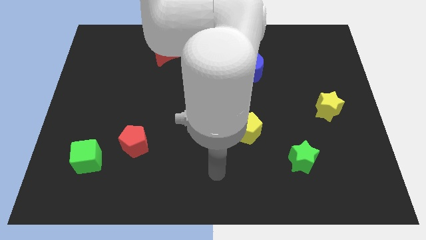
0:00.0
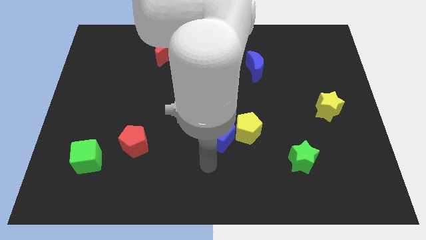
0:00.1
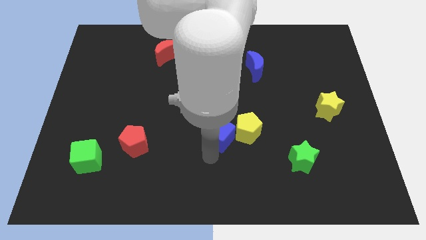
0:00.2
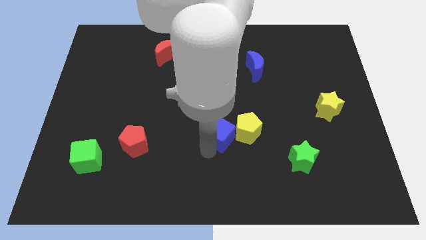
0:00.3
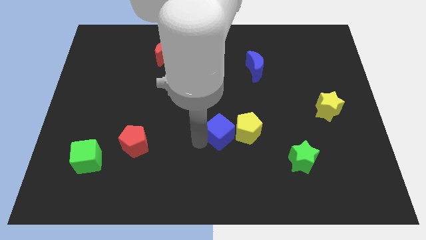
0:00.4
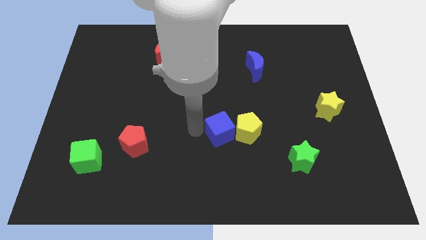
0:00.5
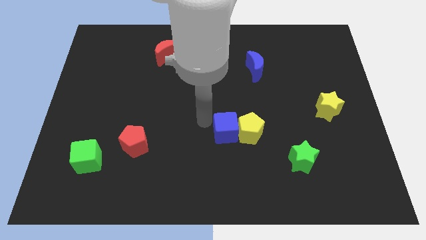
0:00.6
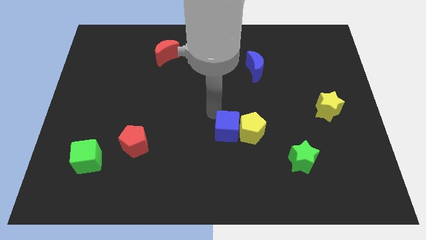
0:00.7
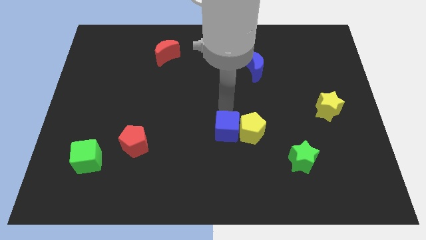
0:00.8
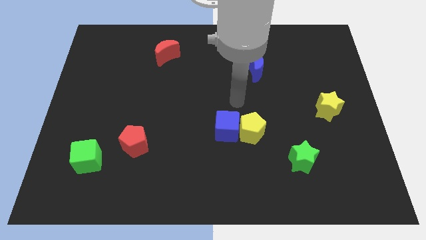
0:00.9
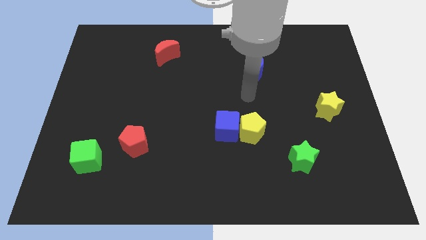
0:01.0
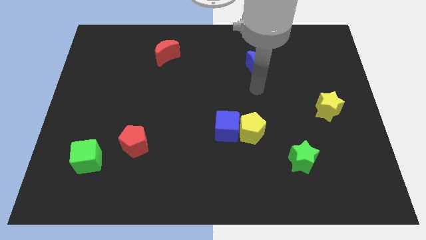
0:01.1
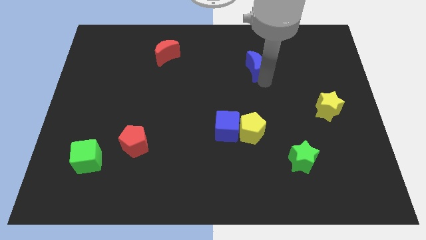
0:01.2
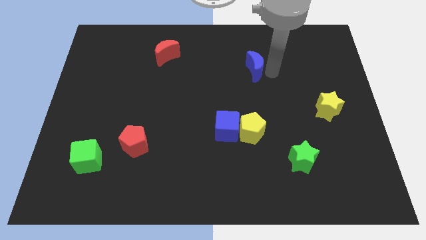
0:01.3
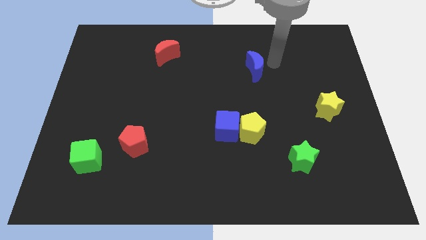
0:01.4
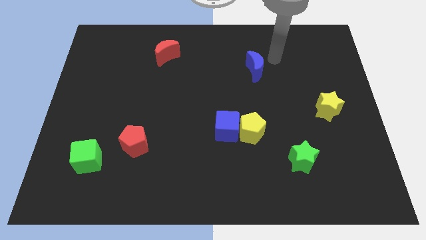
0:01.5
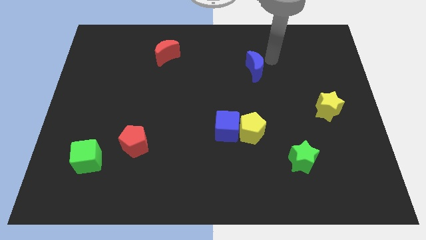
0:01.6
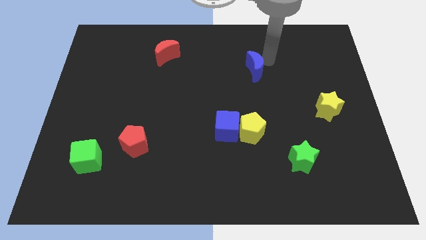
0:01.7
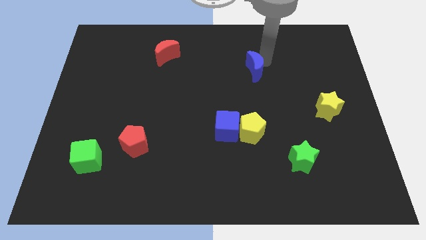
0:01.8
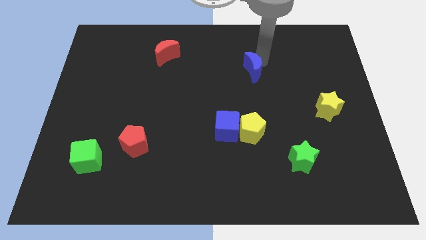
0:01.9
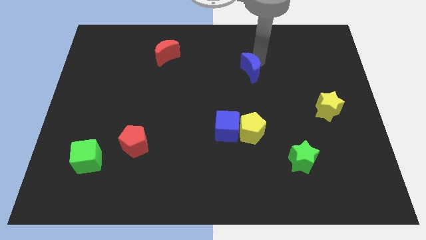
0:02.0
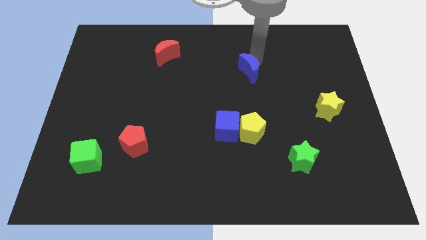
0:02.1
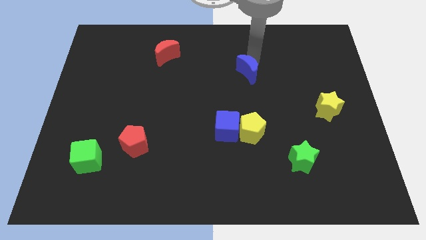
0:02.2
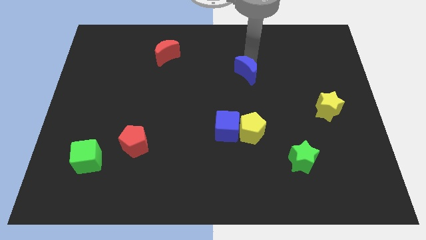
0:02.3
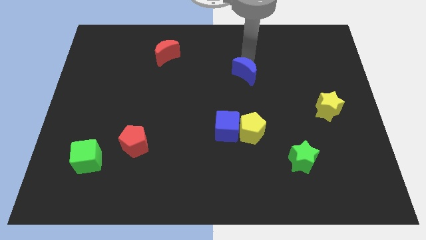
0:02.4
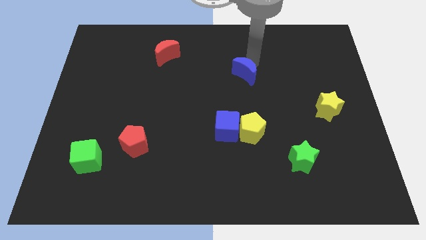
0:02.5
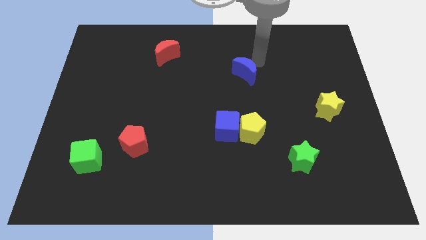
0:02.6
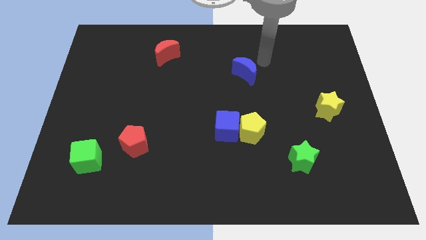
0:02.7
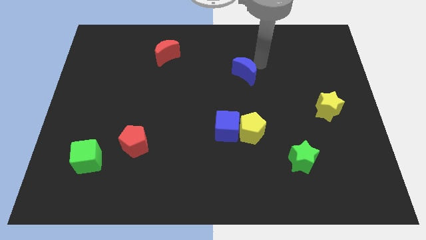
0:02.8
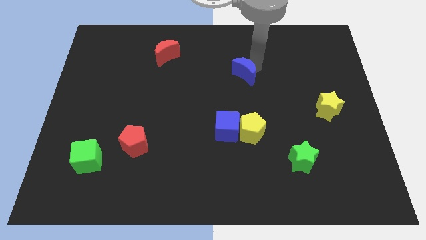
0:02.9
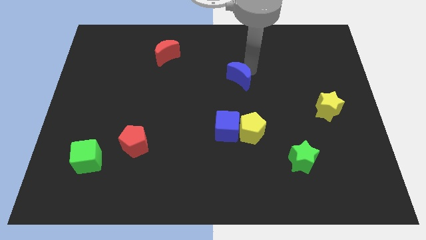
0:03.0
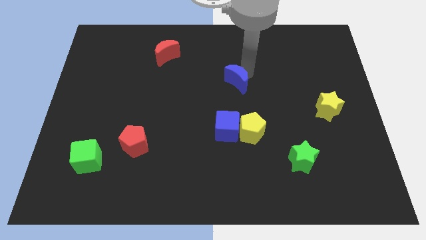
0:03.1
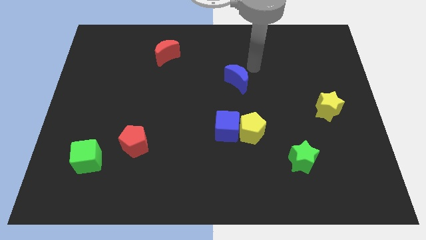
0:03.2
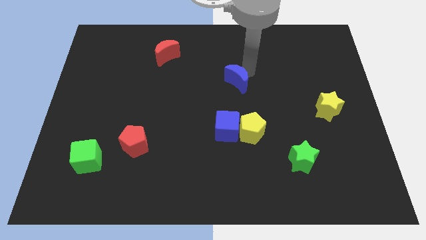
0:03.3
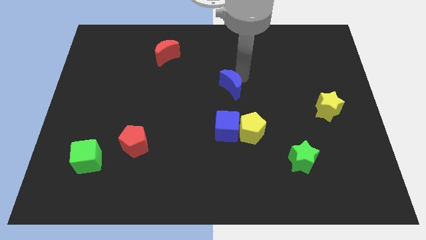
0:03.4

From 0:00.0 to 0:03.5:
move the blue moon a little diagonally down and to the left

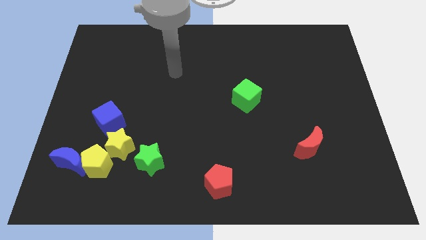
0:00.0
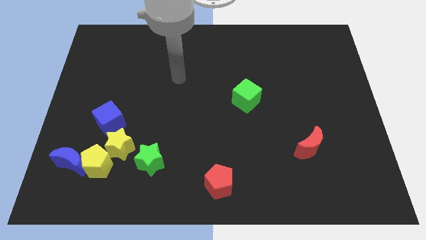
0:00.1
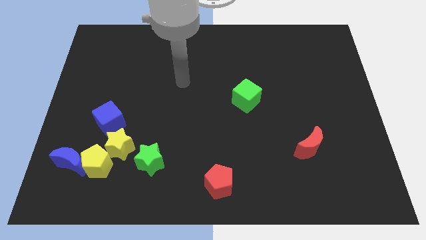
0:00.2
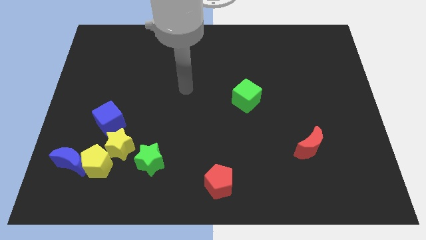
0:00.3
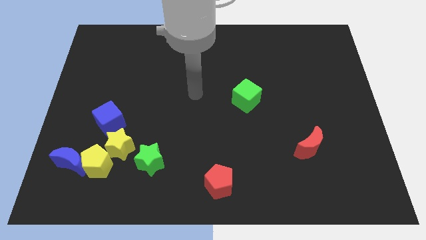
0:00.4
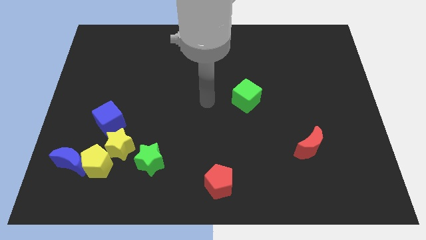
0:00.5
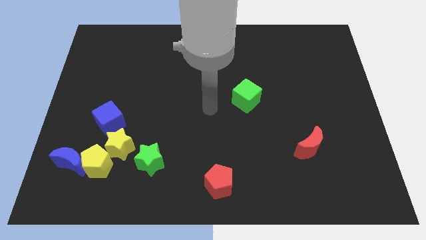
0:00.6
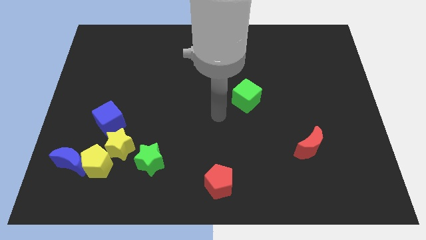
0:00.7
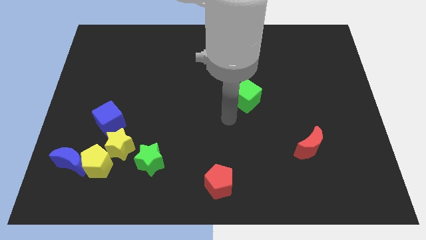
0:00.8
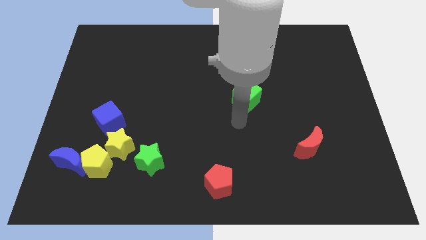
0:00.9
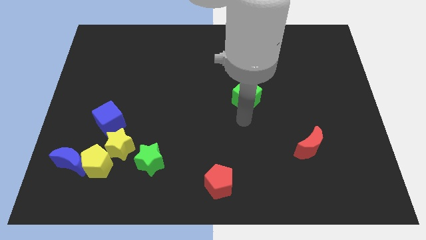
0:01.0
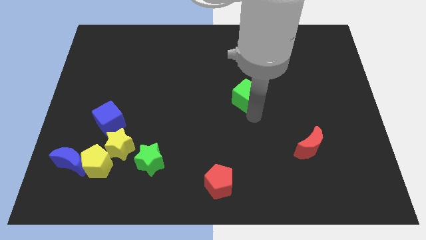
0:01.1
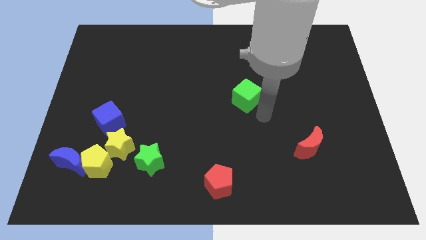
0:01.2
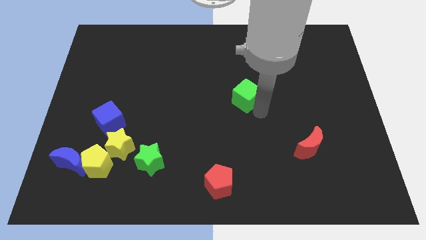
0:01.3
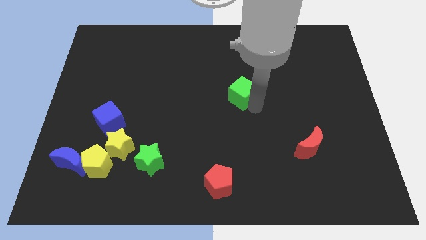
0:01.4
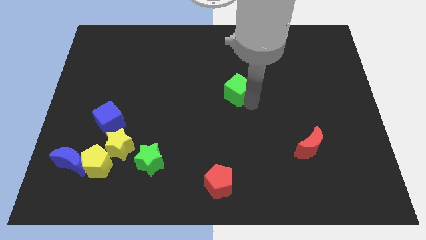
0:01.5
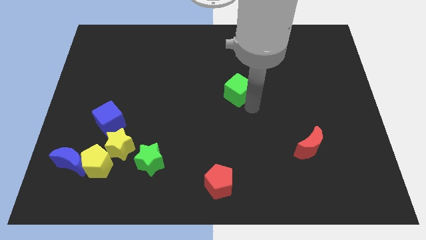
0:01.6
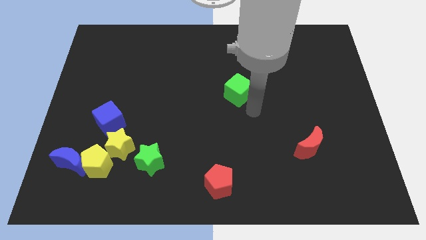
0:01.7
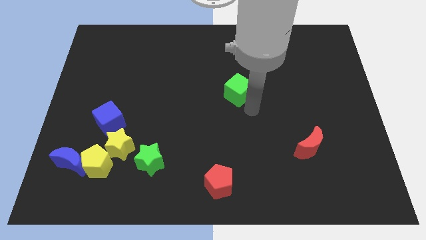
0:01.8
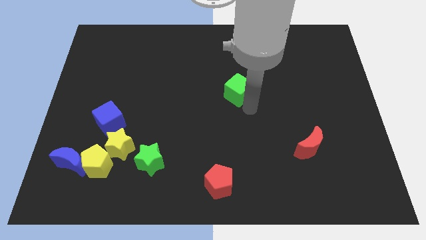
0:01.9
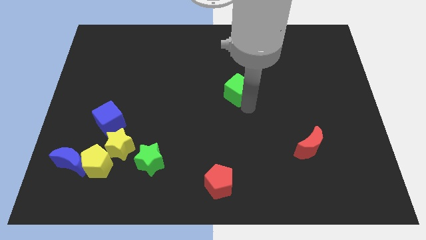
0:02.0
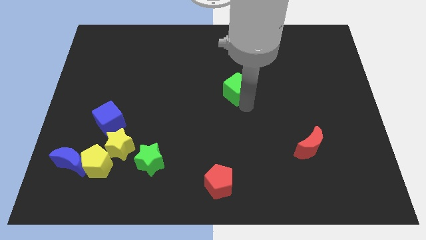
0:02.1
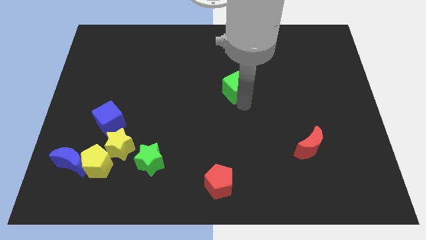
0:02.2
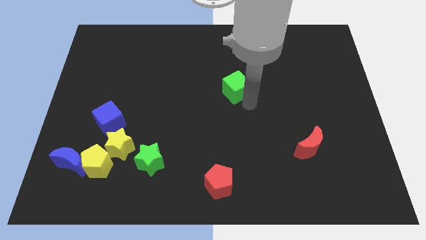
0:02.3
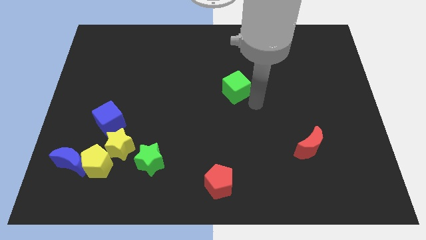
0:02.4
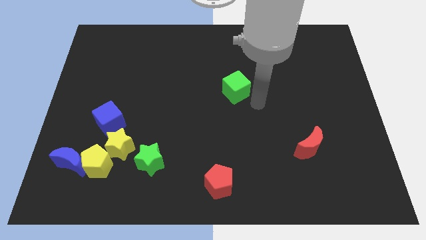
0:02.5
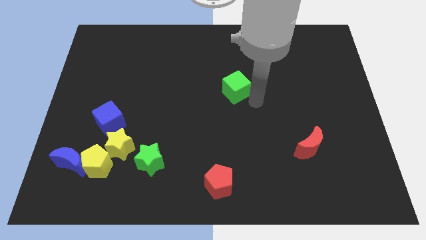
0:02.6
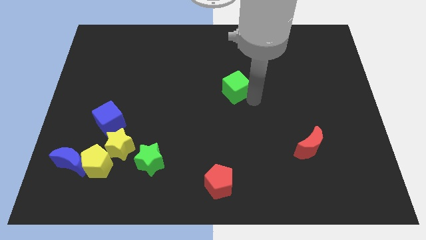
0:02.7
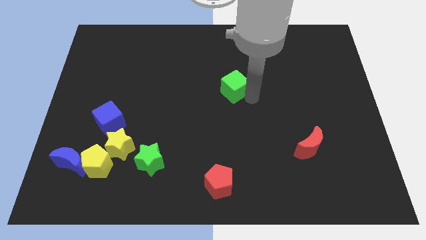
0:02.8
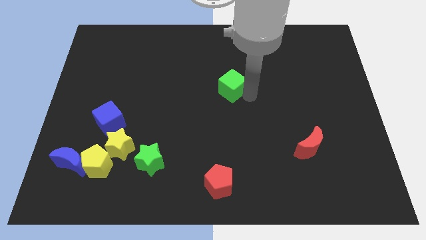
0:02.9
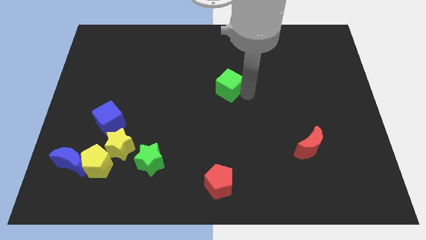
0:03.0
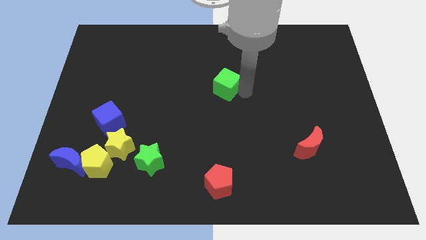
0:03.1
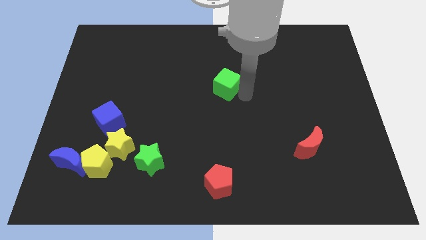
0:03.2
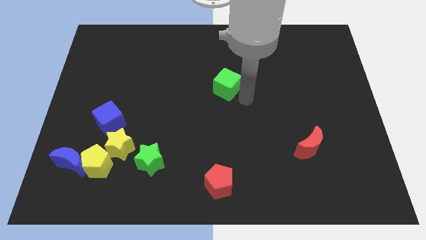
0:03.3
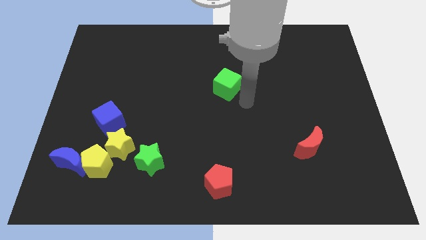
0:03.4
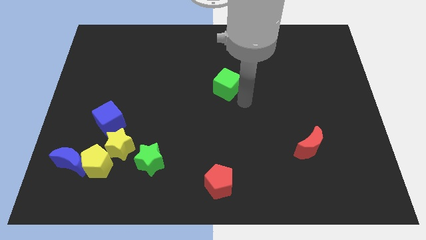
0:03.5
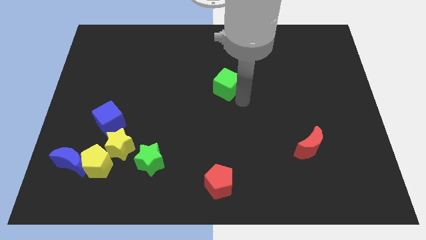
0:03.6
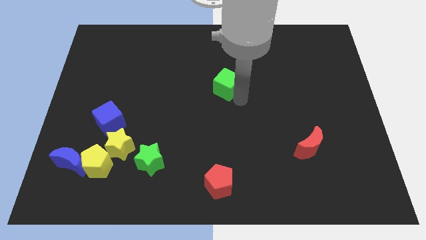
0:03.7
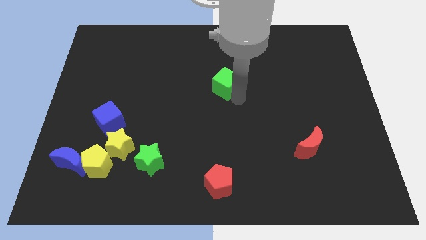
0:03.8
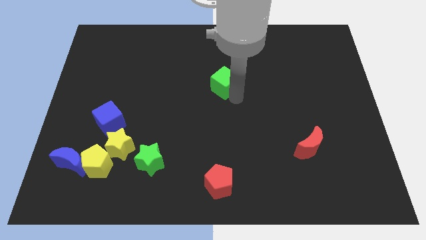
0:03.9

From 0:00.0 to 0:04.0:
slide the green cube up and then left slightly

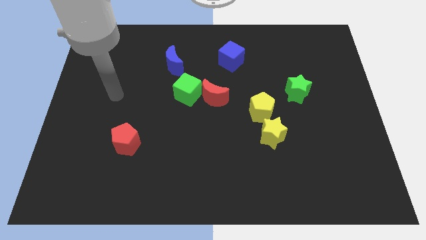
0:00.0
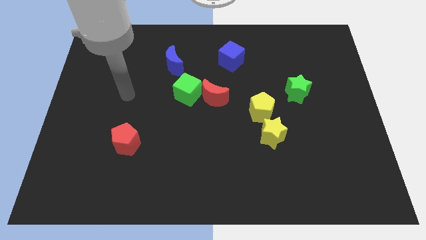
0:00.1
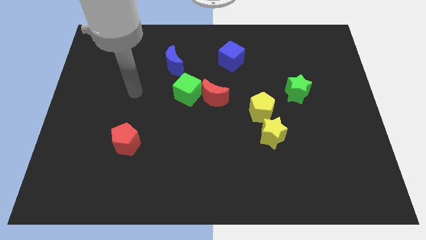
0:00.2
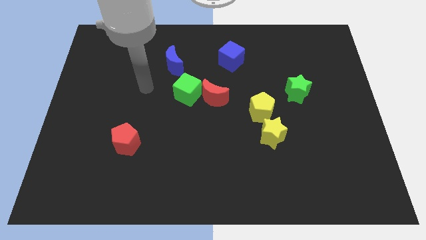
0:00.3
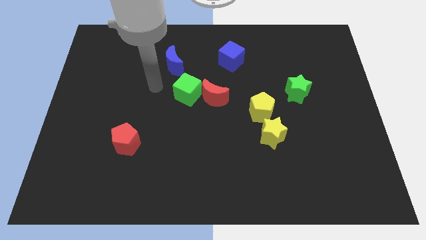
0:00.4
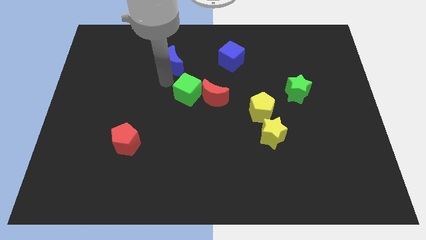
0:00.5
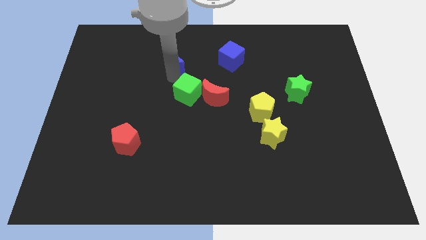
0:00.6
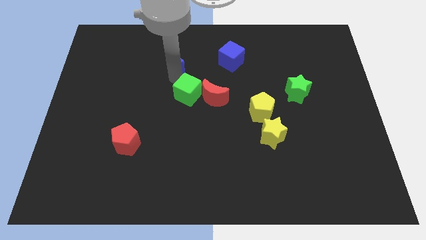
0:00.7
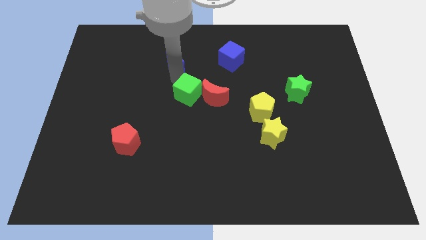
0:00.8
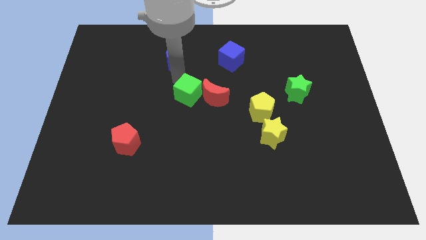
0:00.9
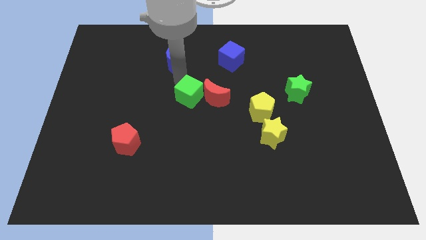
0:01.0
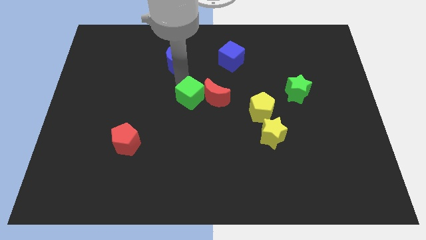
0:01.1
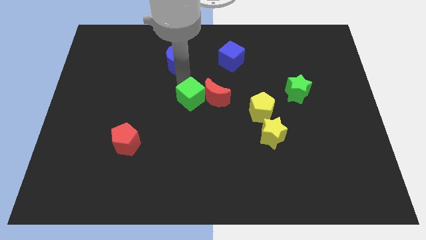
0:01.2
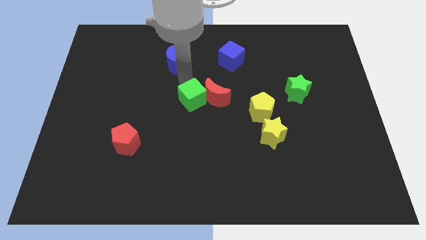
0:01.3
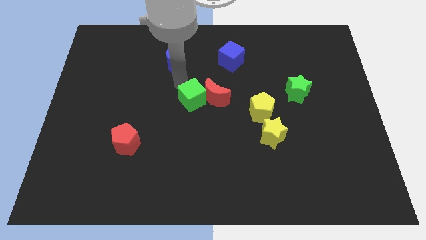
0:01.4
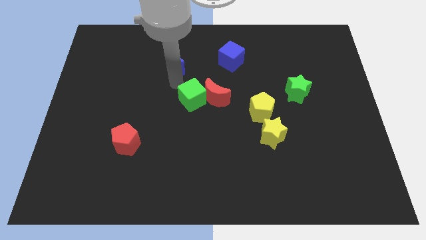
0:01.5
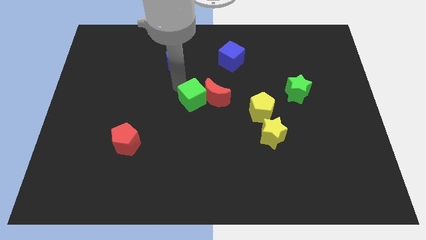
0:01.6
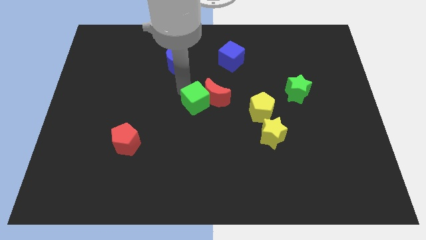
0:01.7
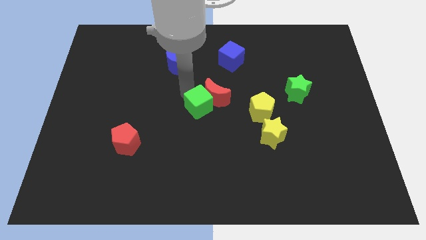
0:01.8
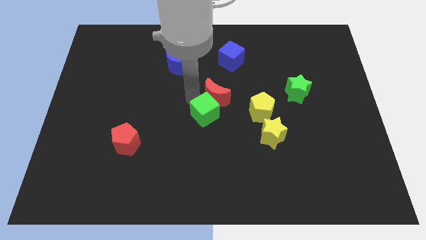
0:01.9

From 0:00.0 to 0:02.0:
slightly slide the green cube down and right diagonally
